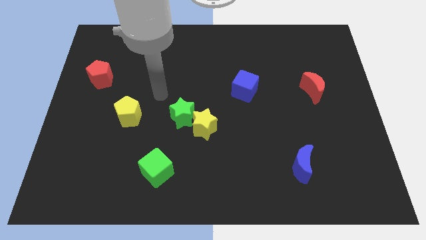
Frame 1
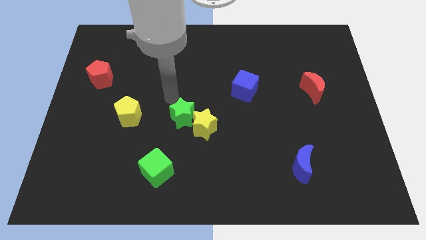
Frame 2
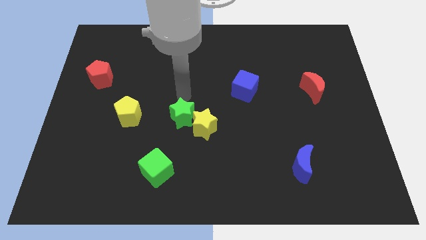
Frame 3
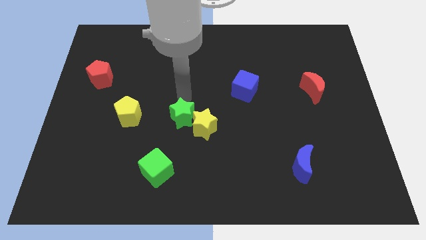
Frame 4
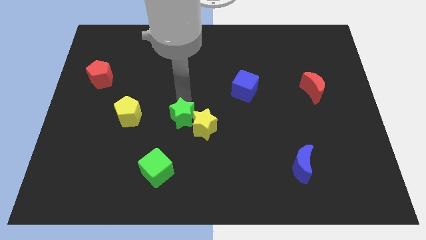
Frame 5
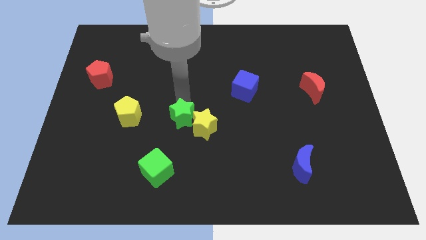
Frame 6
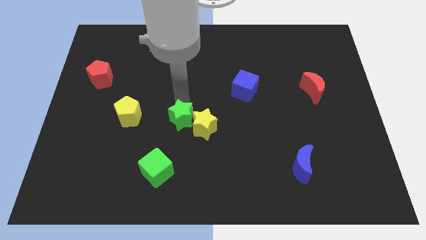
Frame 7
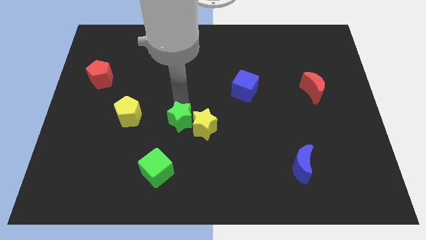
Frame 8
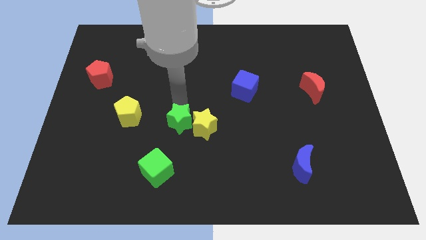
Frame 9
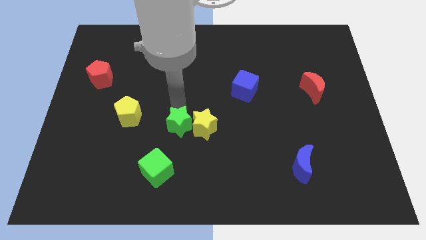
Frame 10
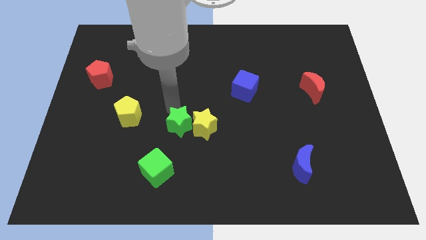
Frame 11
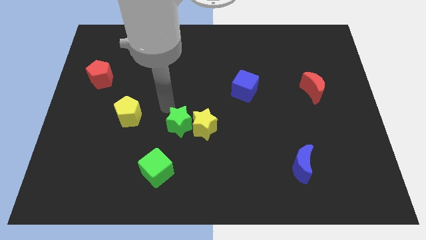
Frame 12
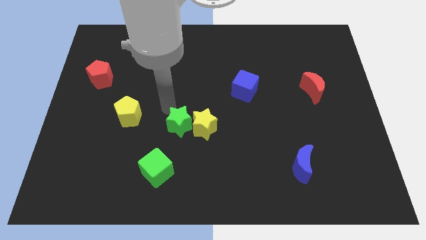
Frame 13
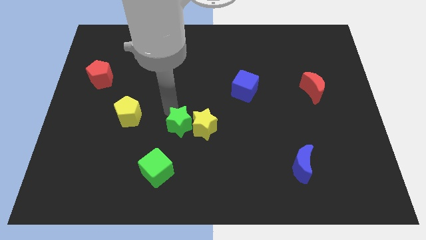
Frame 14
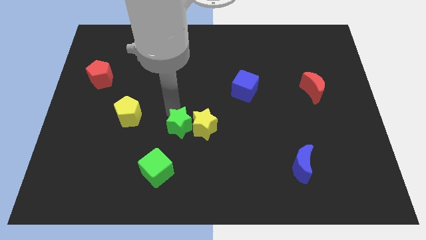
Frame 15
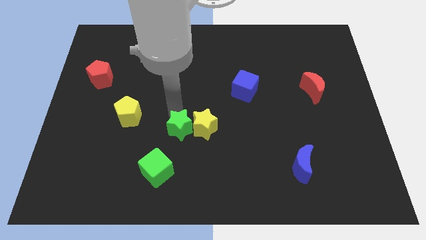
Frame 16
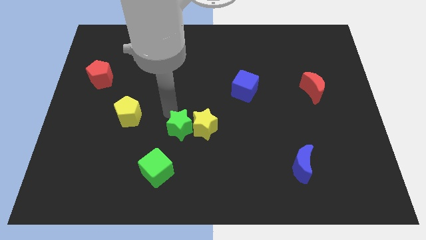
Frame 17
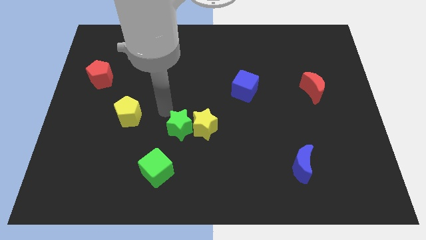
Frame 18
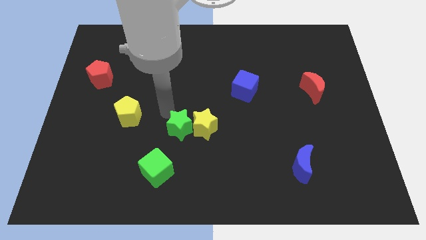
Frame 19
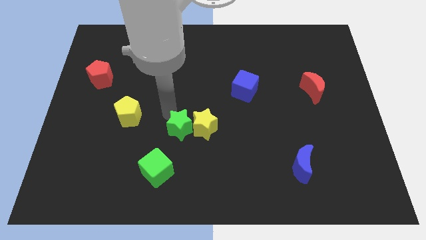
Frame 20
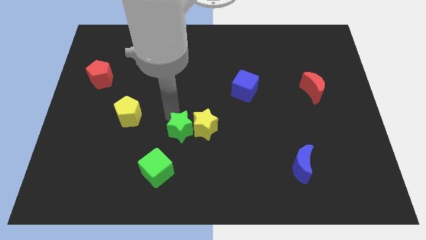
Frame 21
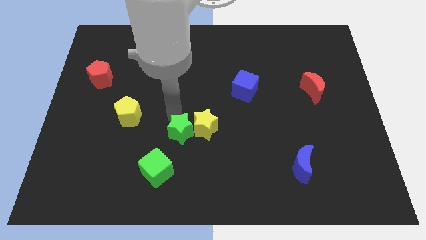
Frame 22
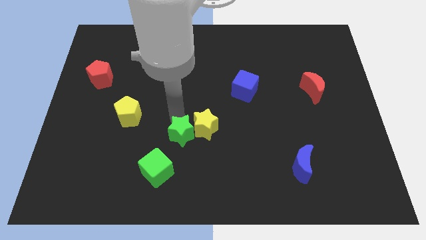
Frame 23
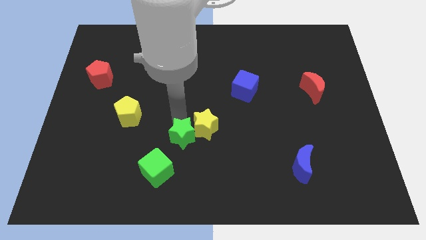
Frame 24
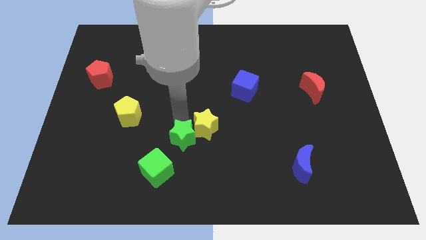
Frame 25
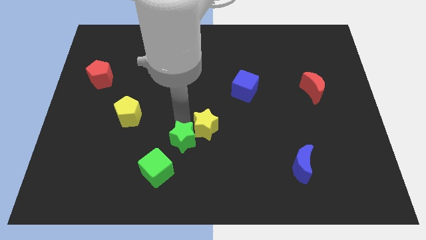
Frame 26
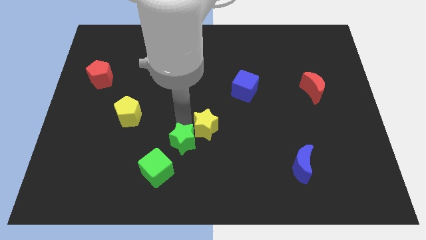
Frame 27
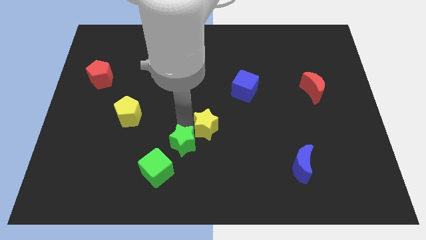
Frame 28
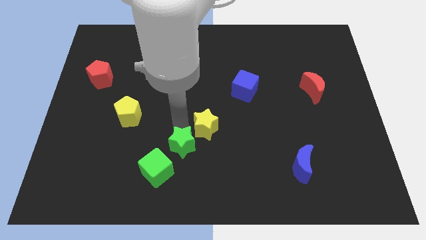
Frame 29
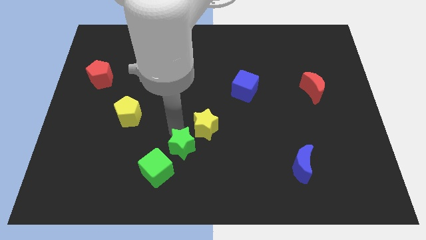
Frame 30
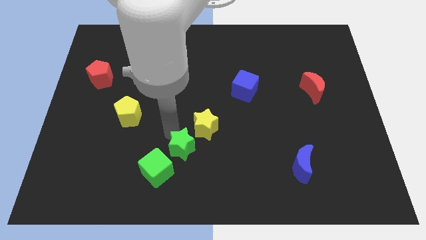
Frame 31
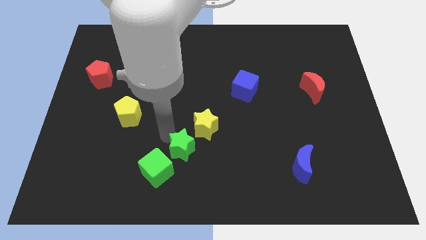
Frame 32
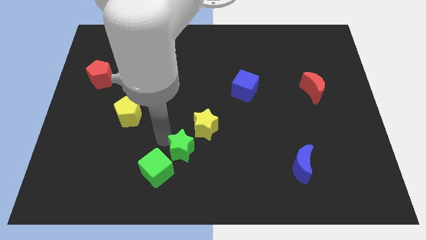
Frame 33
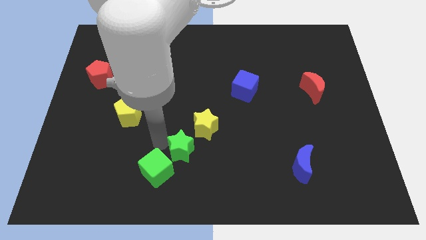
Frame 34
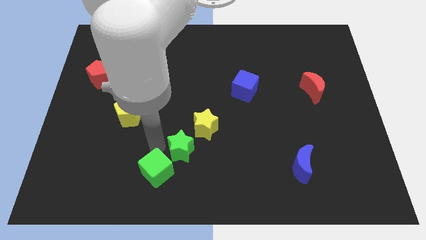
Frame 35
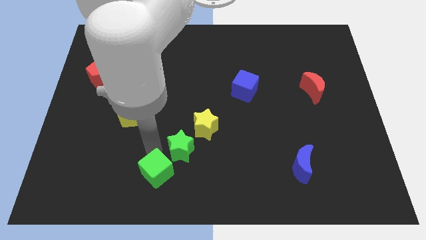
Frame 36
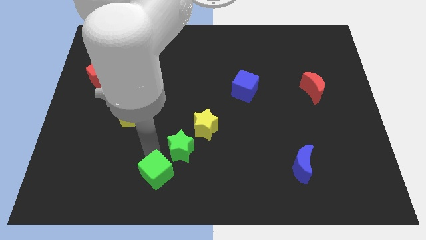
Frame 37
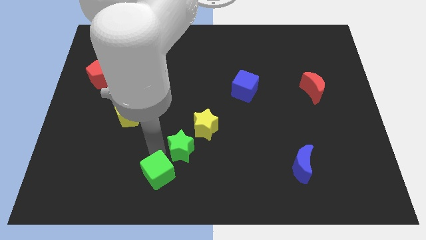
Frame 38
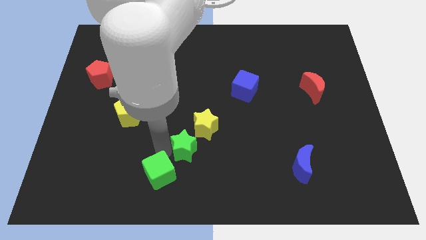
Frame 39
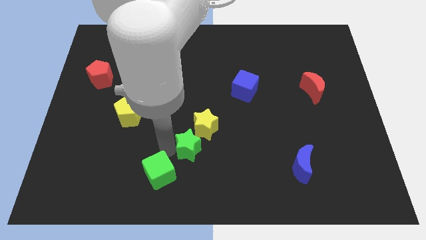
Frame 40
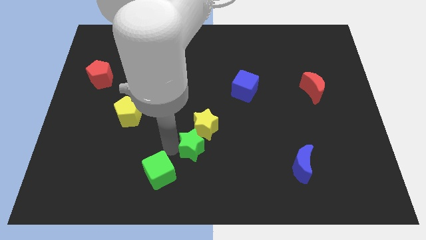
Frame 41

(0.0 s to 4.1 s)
slide the green star down and to the right a bit

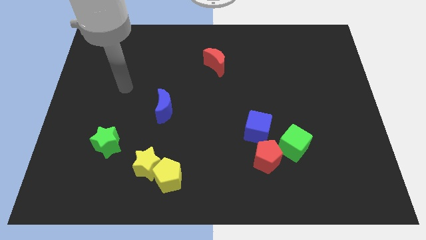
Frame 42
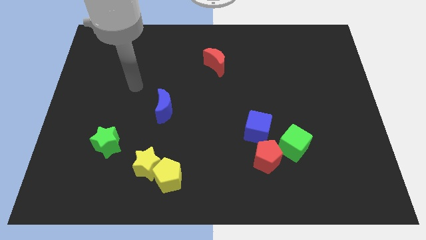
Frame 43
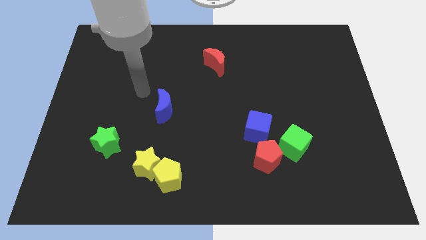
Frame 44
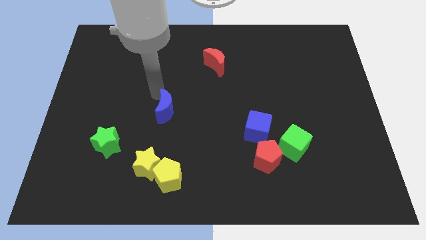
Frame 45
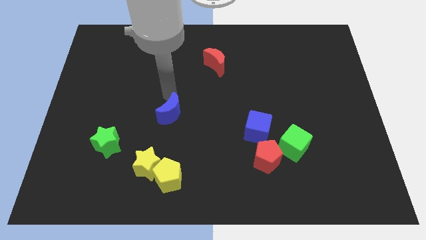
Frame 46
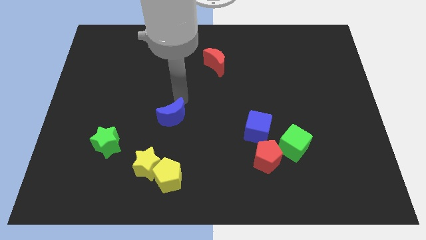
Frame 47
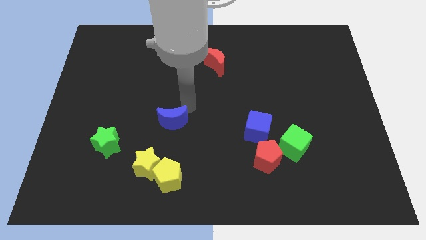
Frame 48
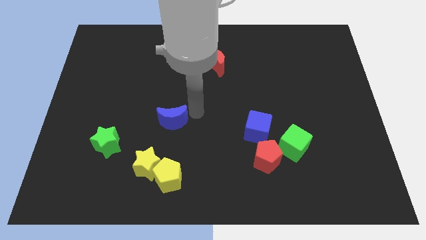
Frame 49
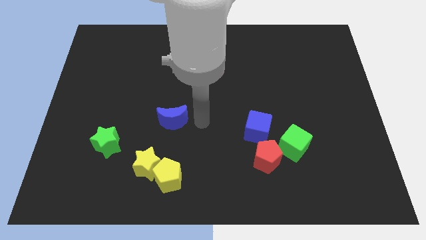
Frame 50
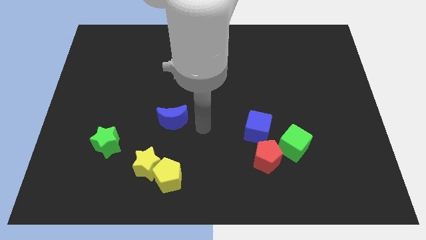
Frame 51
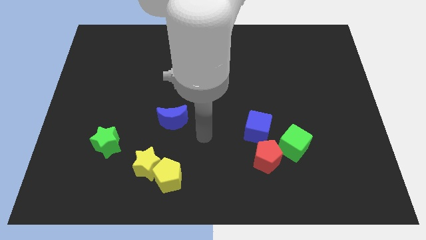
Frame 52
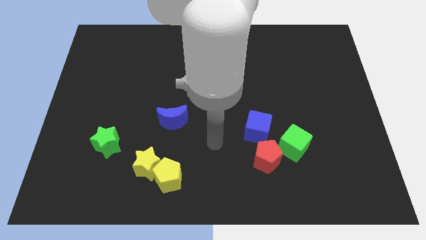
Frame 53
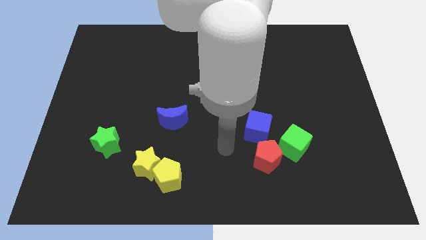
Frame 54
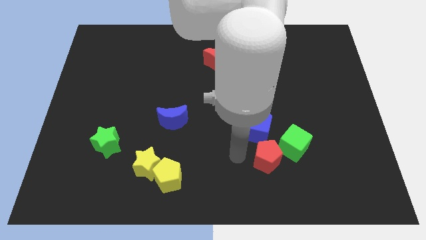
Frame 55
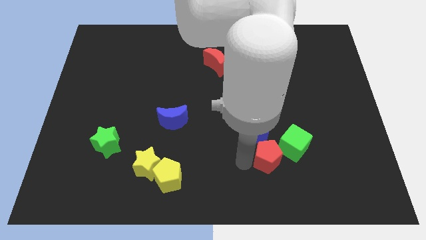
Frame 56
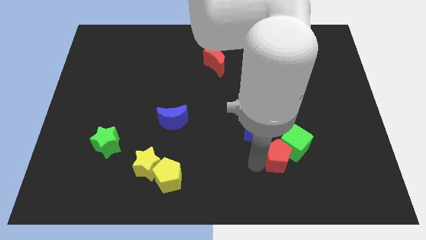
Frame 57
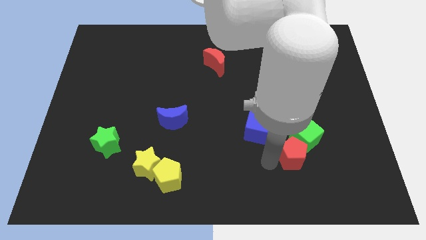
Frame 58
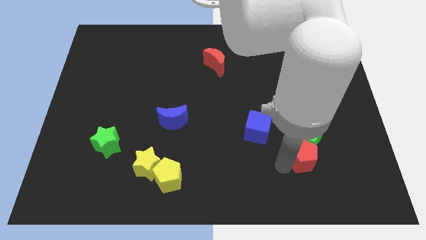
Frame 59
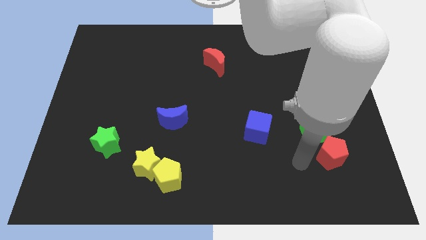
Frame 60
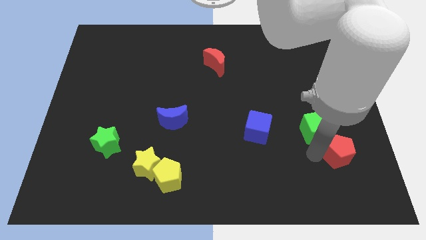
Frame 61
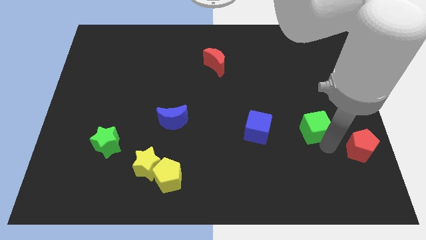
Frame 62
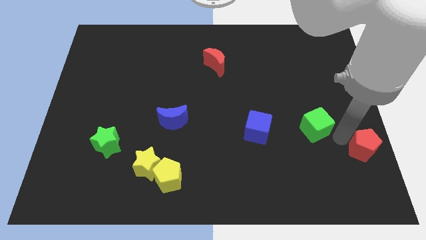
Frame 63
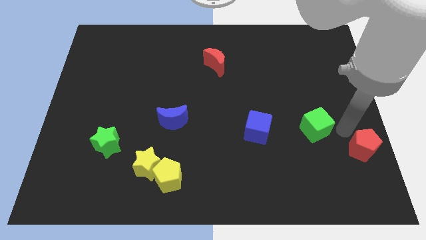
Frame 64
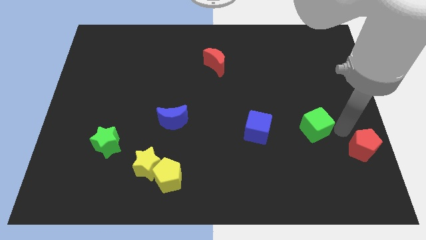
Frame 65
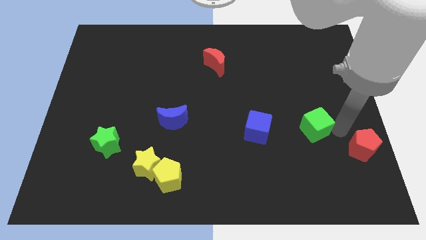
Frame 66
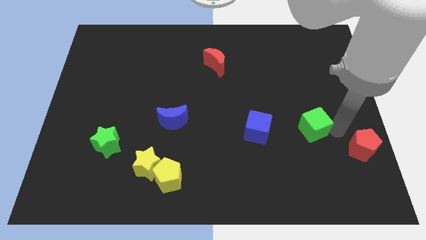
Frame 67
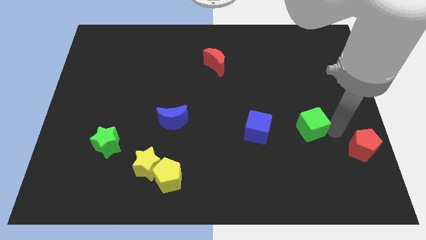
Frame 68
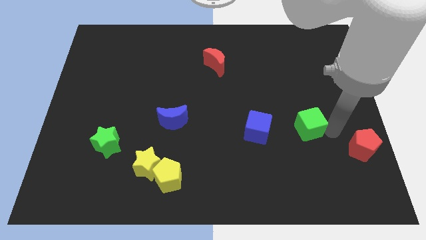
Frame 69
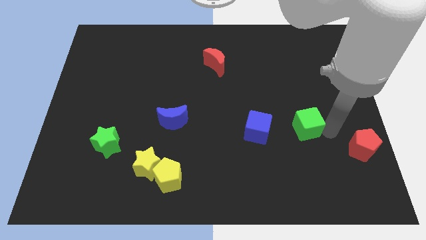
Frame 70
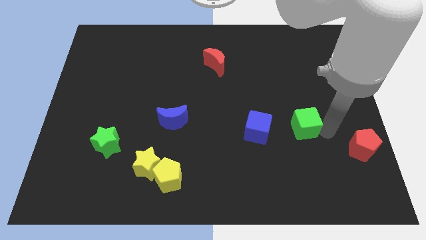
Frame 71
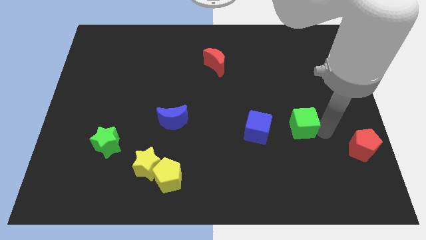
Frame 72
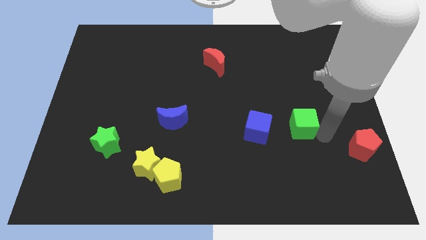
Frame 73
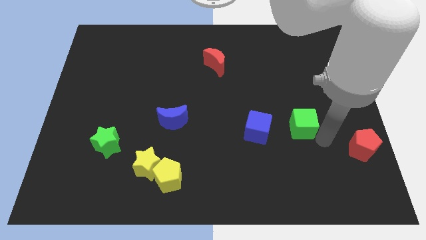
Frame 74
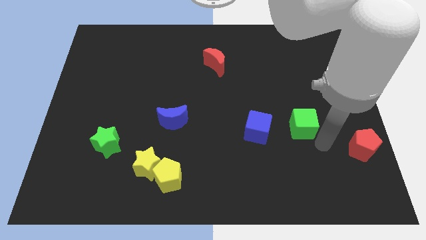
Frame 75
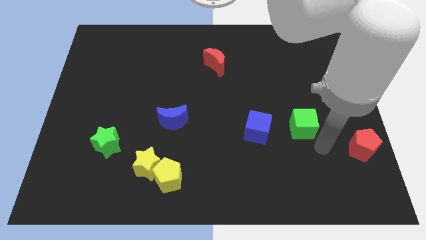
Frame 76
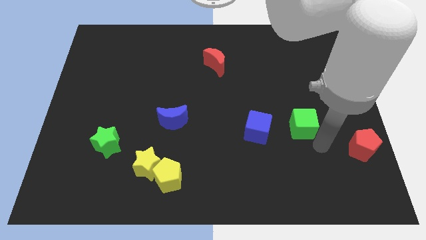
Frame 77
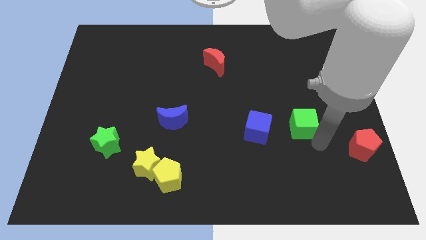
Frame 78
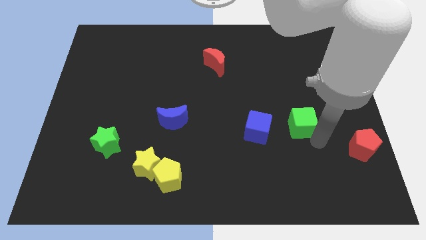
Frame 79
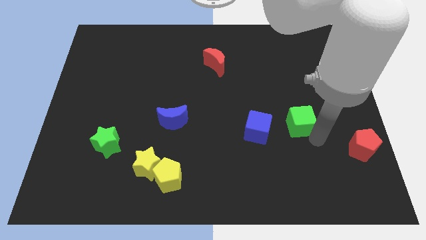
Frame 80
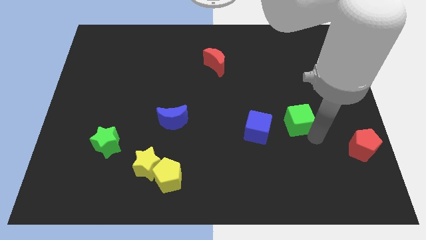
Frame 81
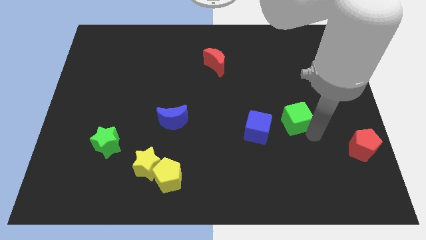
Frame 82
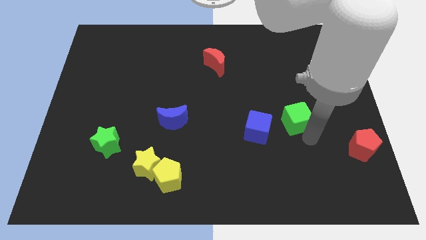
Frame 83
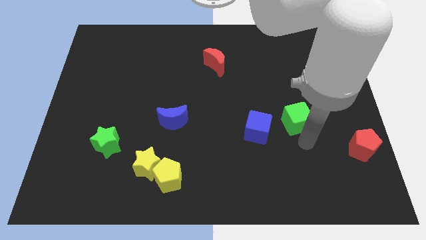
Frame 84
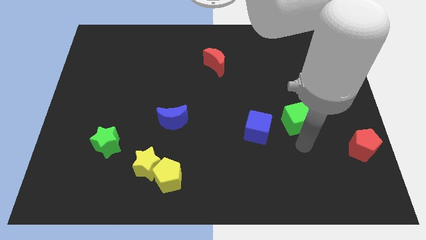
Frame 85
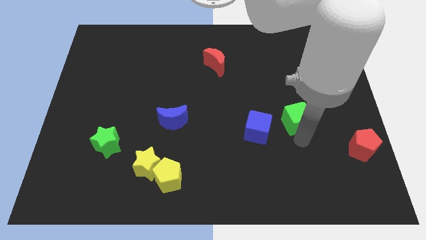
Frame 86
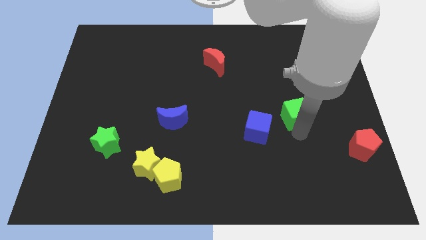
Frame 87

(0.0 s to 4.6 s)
slide the green cube up a bit
